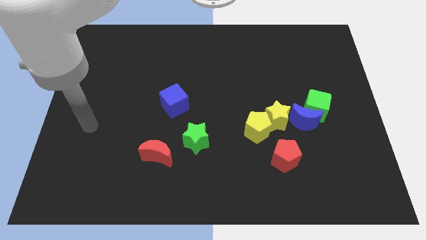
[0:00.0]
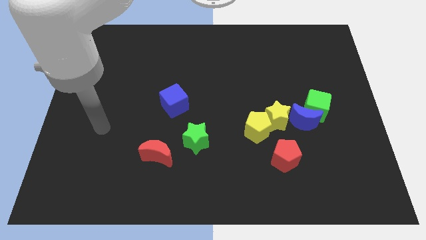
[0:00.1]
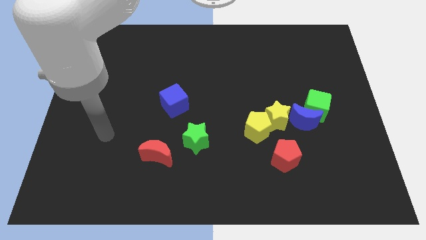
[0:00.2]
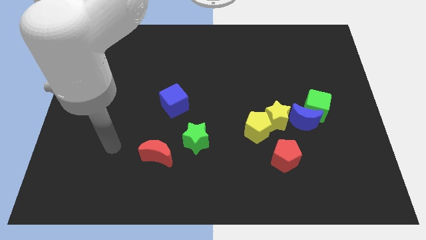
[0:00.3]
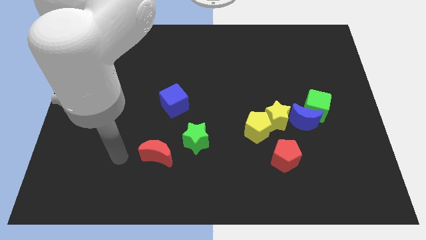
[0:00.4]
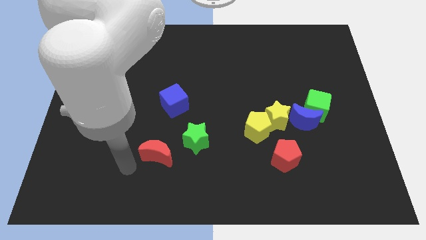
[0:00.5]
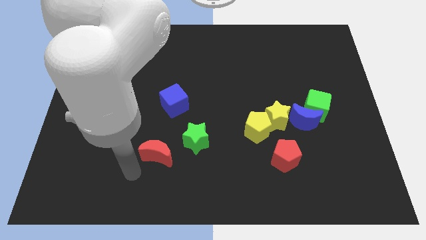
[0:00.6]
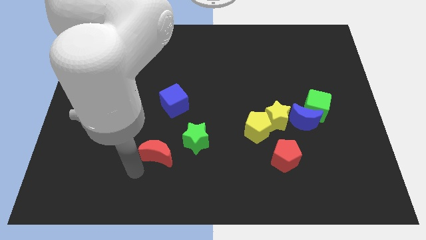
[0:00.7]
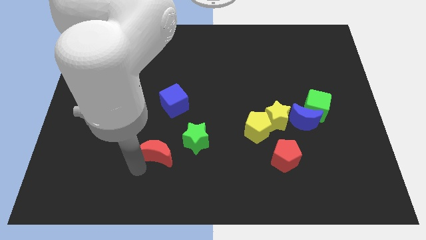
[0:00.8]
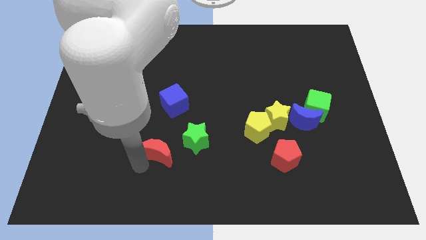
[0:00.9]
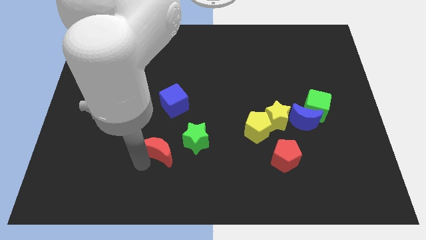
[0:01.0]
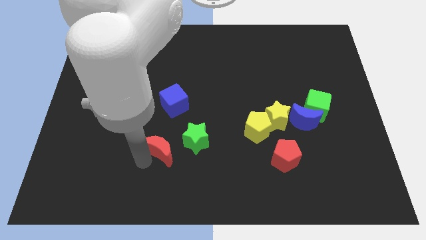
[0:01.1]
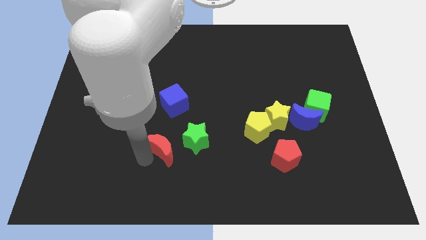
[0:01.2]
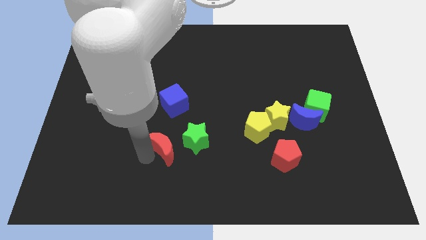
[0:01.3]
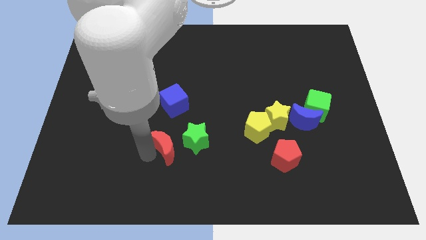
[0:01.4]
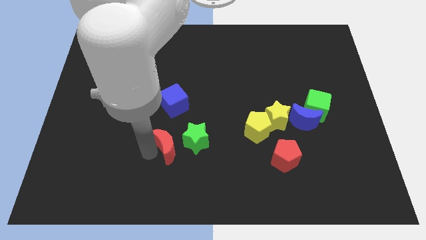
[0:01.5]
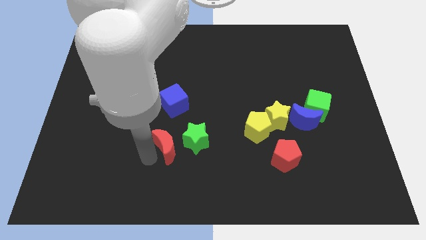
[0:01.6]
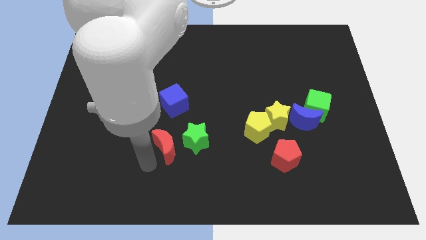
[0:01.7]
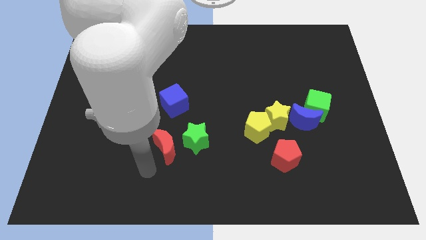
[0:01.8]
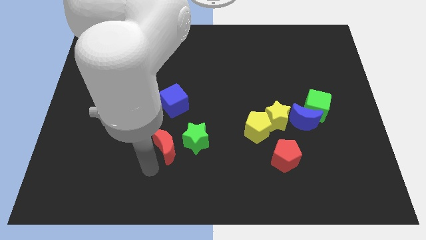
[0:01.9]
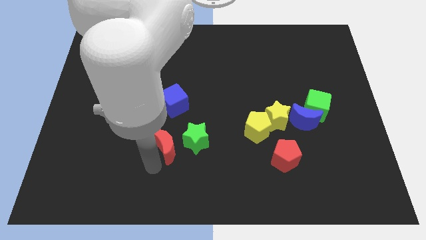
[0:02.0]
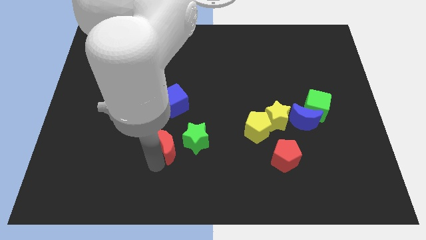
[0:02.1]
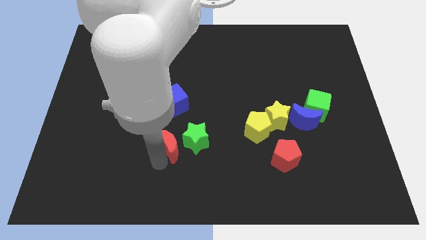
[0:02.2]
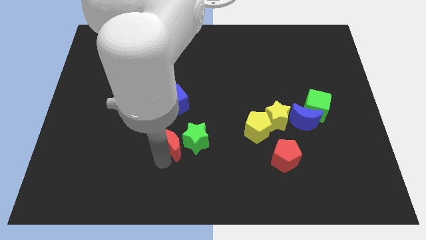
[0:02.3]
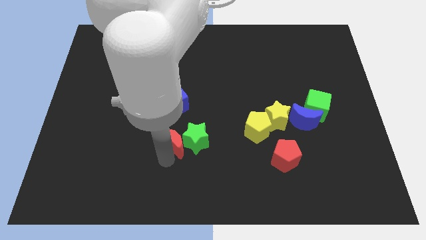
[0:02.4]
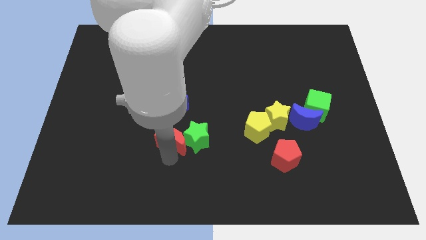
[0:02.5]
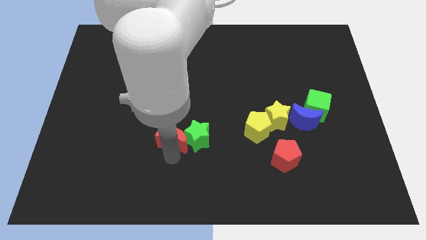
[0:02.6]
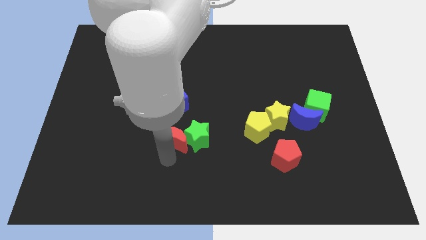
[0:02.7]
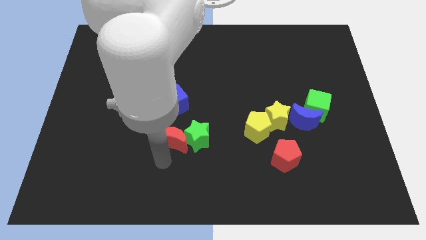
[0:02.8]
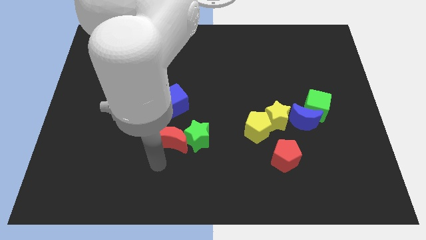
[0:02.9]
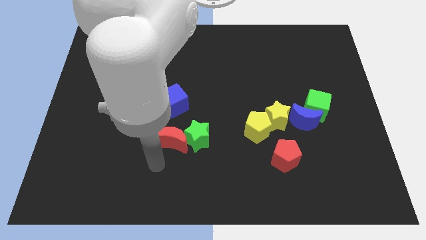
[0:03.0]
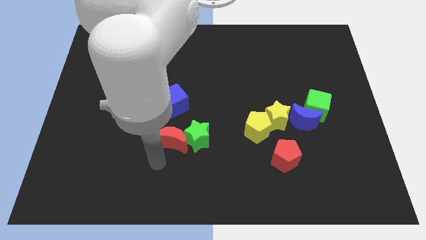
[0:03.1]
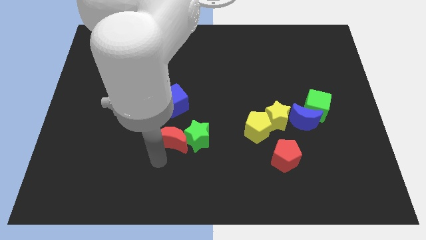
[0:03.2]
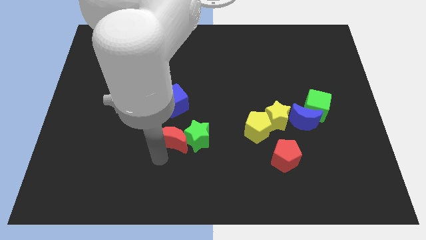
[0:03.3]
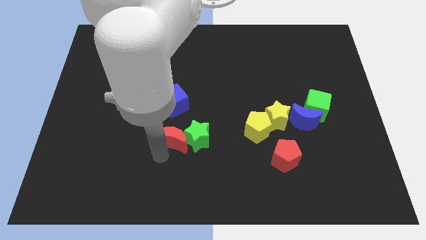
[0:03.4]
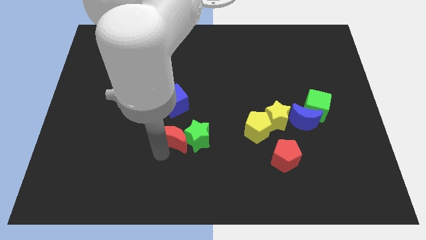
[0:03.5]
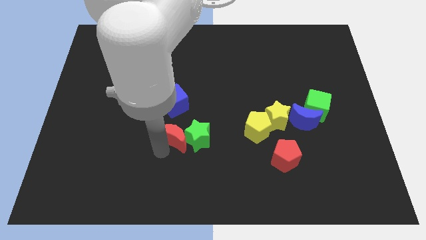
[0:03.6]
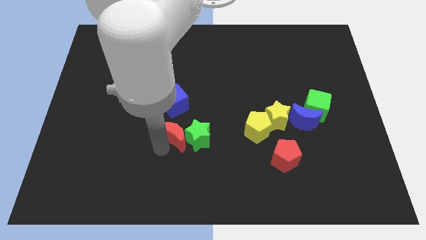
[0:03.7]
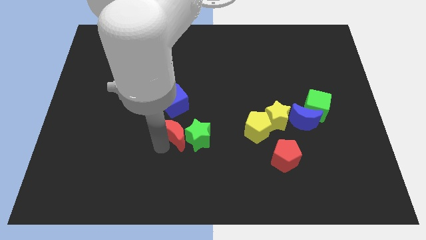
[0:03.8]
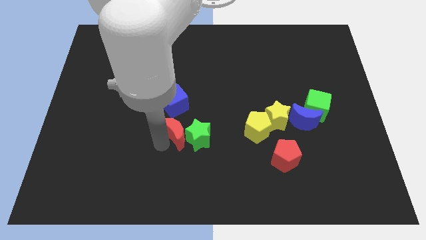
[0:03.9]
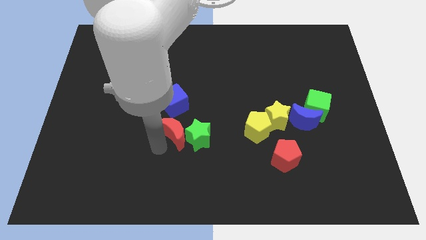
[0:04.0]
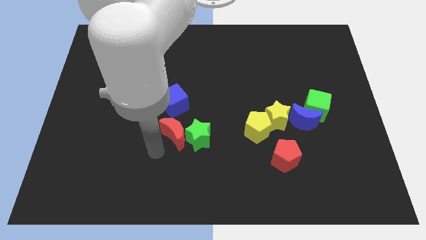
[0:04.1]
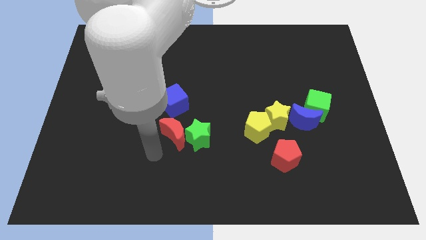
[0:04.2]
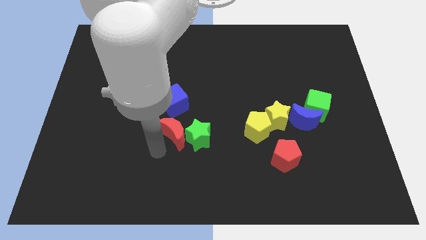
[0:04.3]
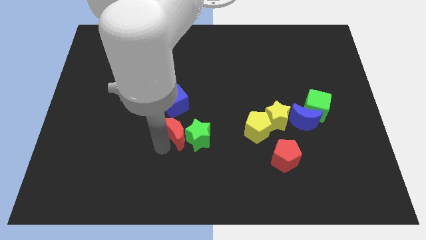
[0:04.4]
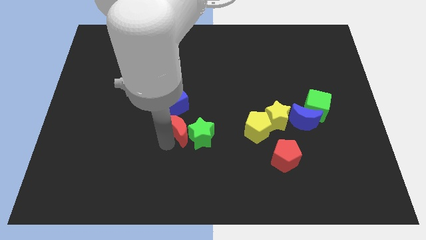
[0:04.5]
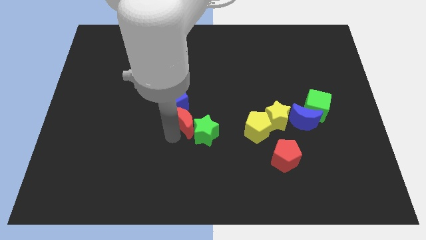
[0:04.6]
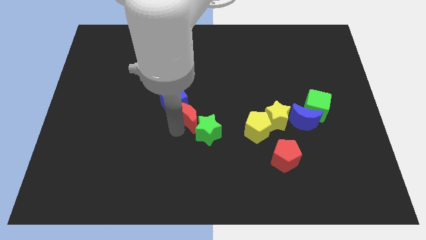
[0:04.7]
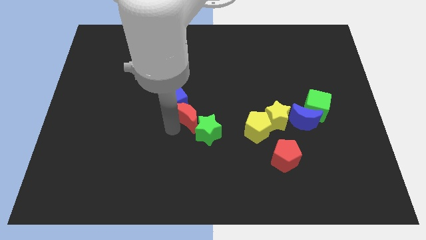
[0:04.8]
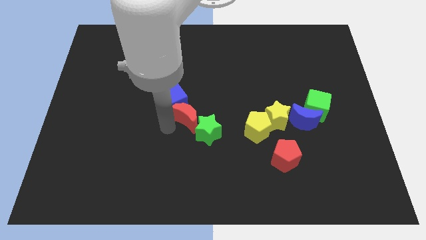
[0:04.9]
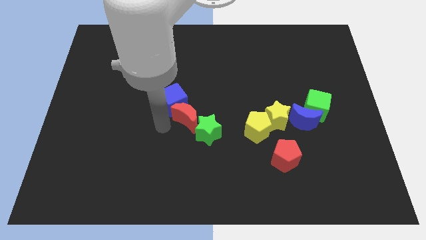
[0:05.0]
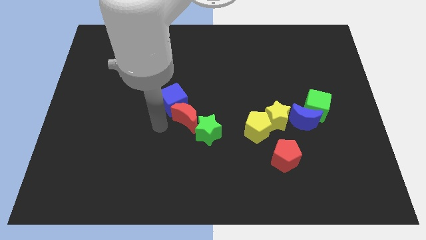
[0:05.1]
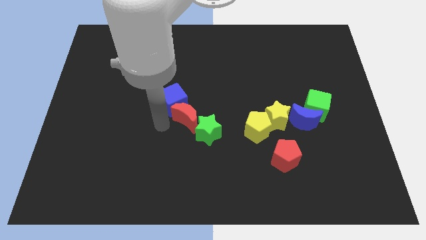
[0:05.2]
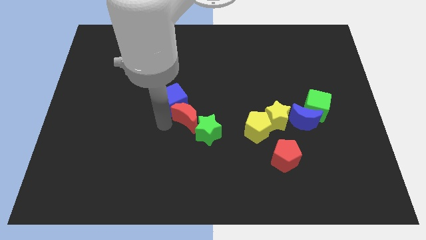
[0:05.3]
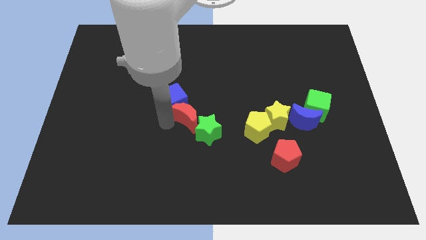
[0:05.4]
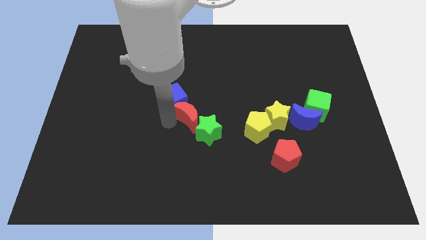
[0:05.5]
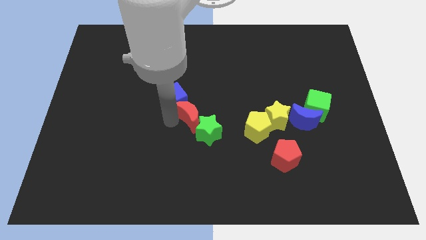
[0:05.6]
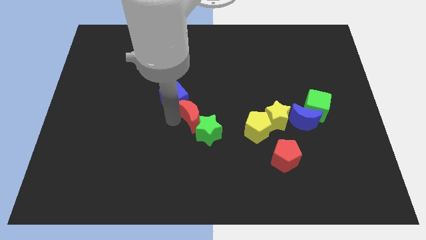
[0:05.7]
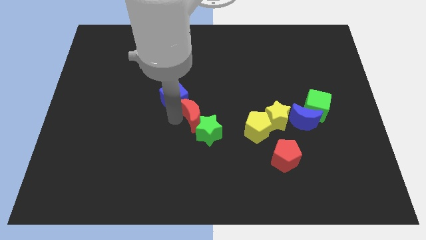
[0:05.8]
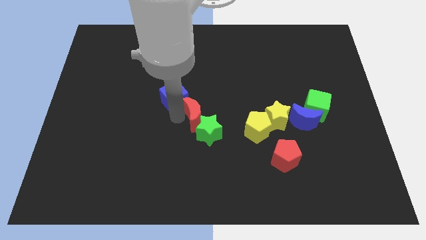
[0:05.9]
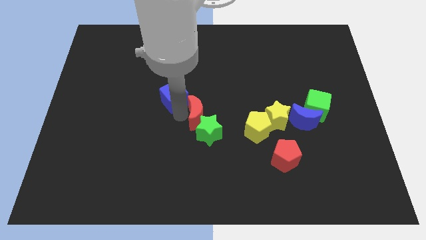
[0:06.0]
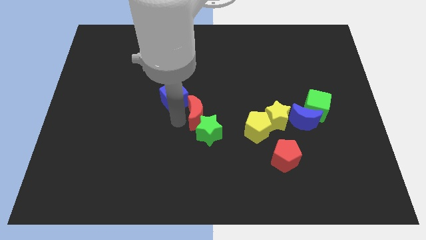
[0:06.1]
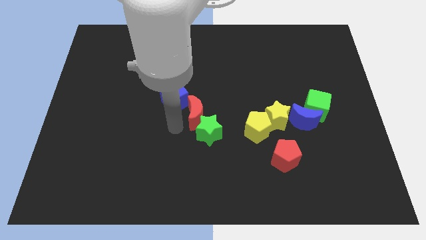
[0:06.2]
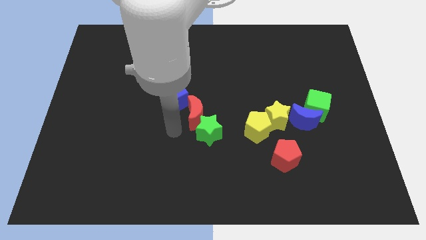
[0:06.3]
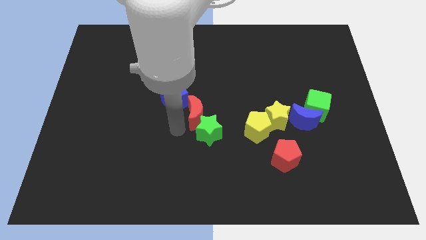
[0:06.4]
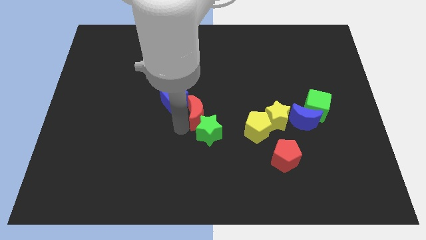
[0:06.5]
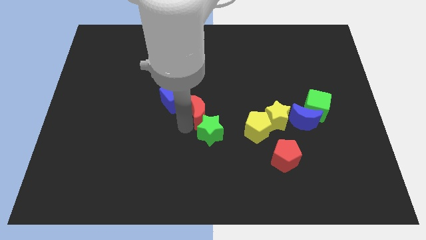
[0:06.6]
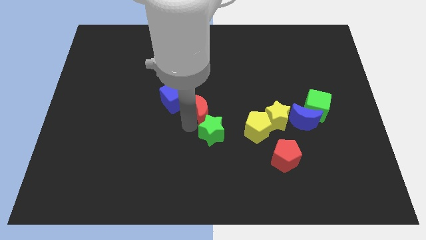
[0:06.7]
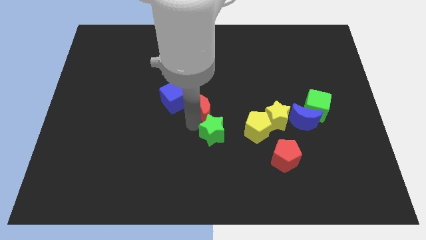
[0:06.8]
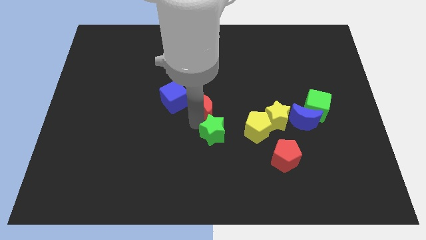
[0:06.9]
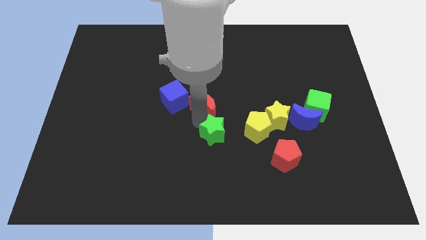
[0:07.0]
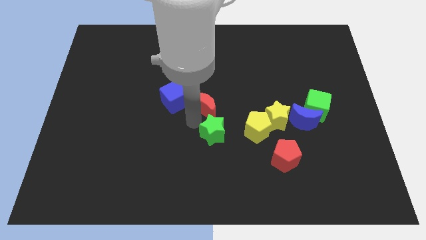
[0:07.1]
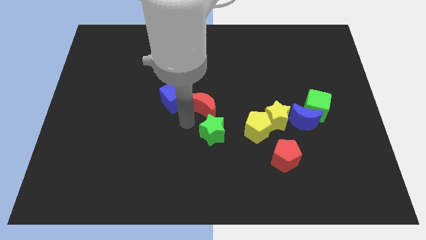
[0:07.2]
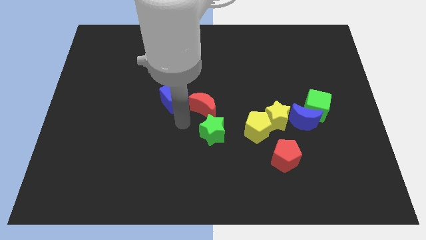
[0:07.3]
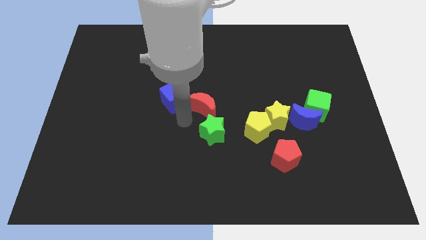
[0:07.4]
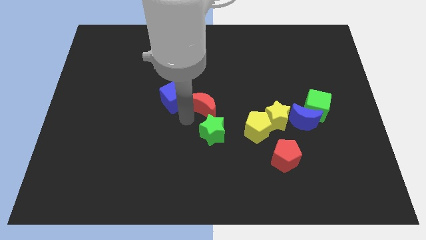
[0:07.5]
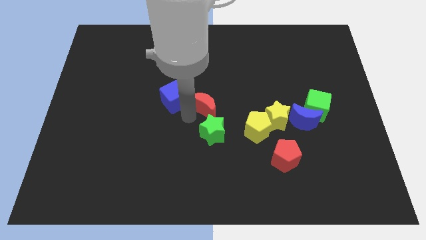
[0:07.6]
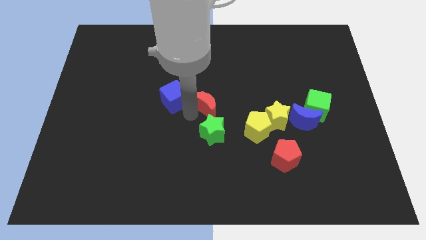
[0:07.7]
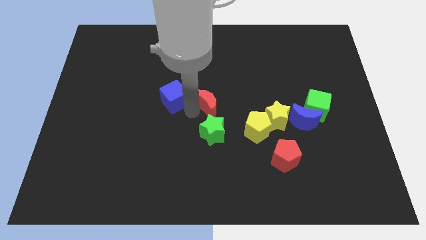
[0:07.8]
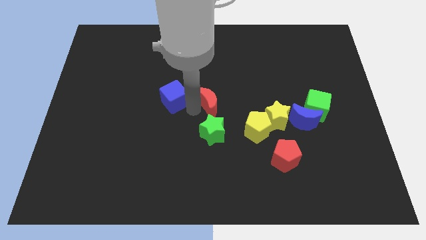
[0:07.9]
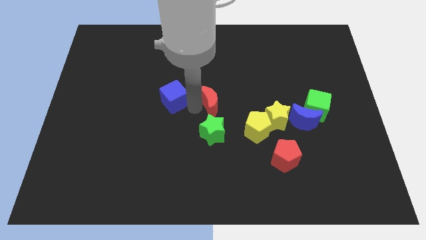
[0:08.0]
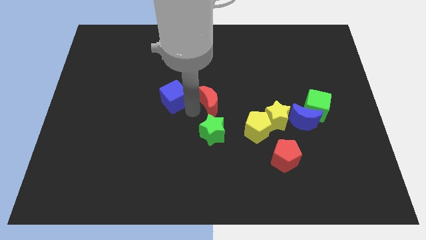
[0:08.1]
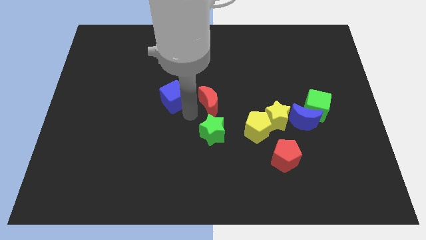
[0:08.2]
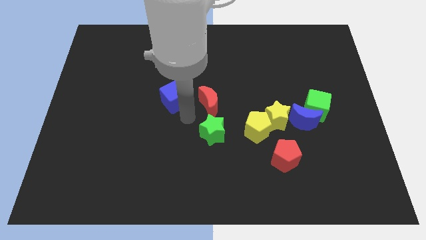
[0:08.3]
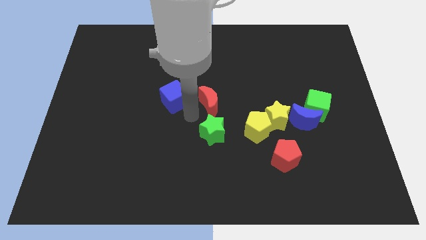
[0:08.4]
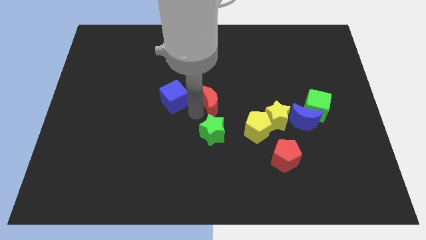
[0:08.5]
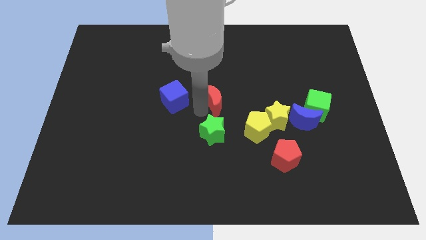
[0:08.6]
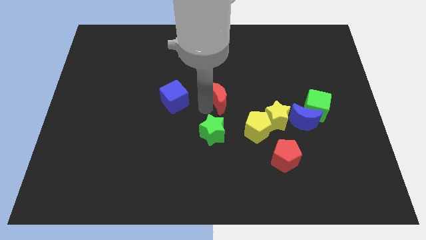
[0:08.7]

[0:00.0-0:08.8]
move the red moon upwards and to the right
